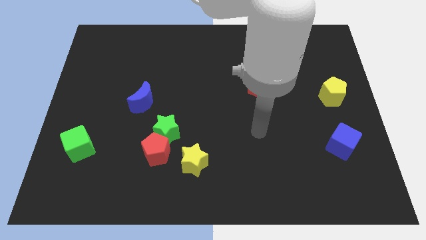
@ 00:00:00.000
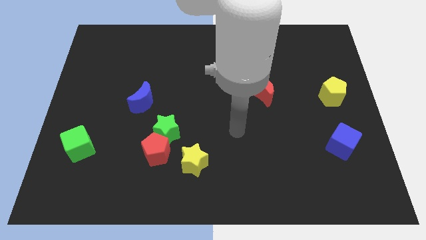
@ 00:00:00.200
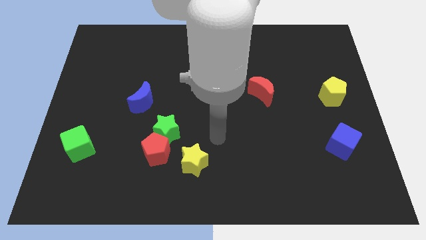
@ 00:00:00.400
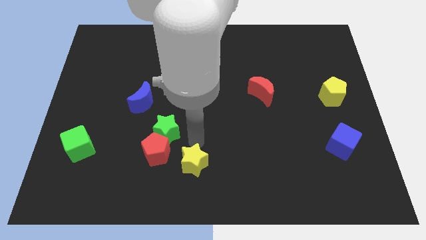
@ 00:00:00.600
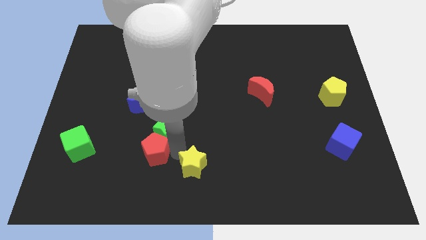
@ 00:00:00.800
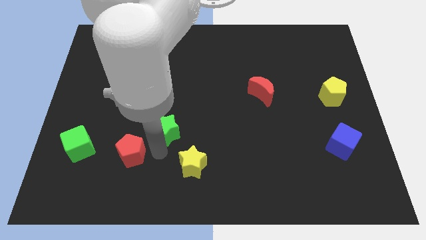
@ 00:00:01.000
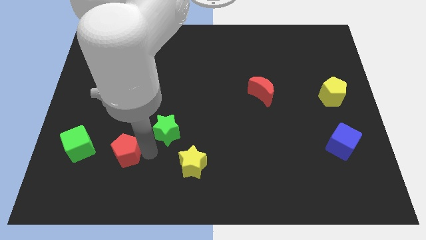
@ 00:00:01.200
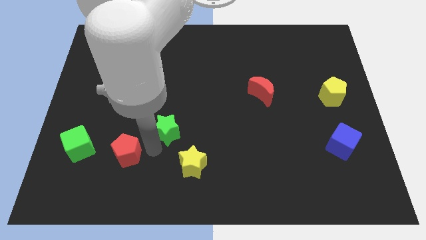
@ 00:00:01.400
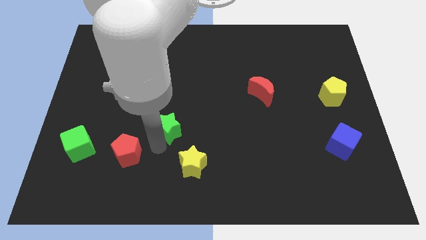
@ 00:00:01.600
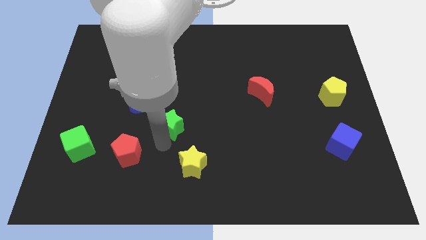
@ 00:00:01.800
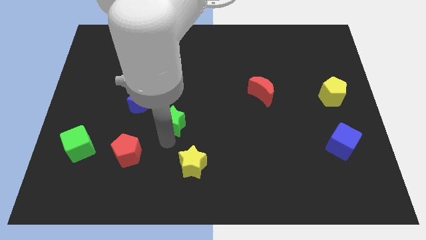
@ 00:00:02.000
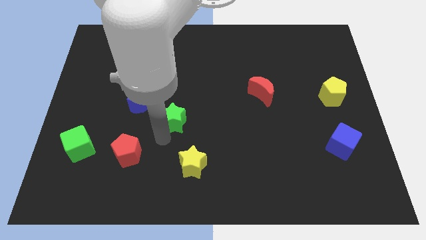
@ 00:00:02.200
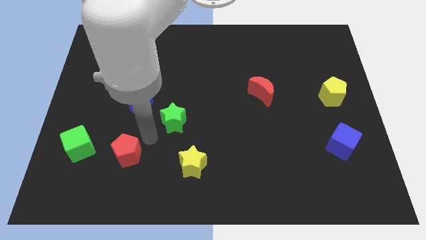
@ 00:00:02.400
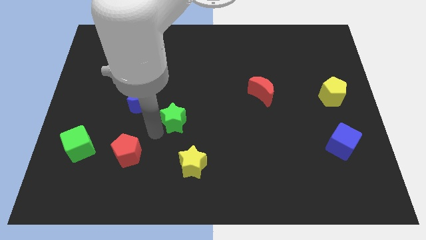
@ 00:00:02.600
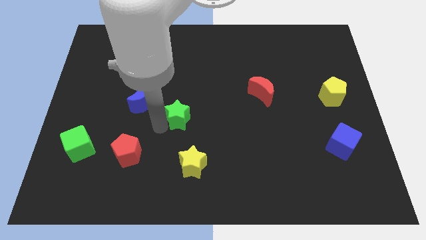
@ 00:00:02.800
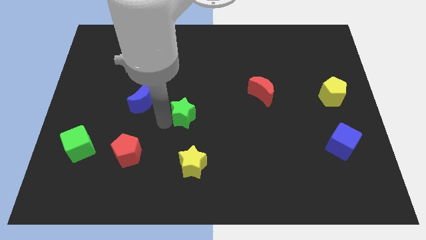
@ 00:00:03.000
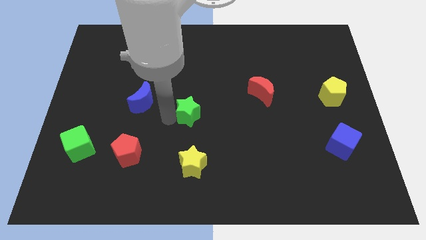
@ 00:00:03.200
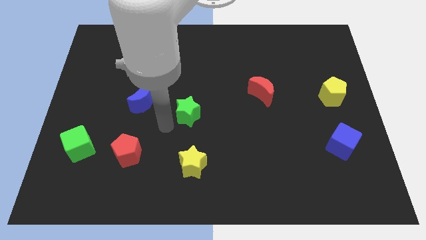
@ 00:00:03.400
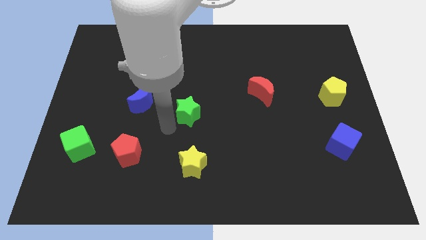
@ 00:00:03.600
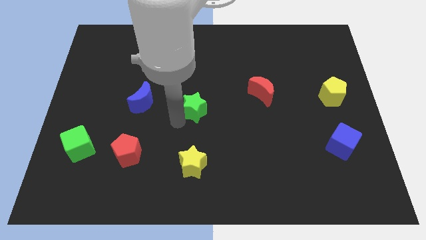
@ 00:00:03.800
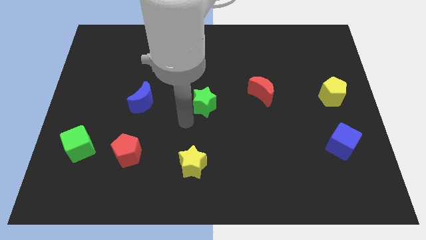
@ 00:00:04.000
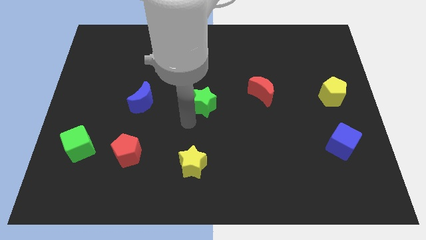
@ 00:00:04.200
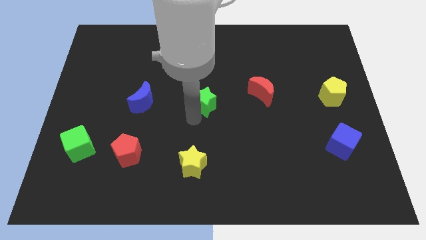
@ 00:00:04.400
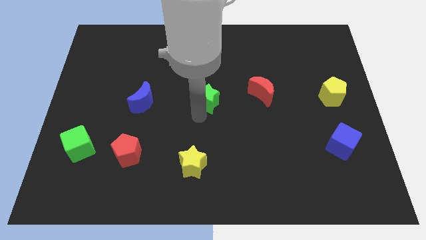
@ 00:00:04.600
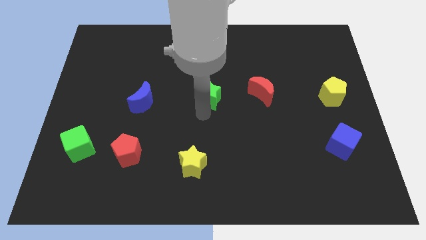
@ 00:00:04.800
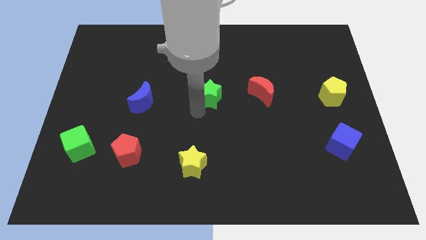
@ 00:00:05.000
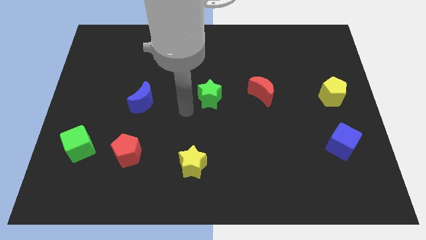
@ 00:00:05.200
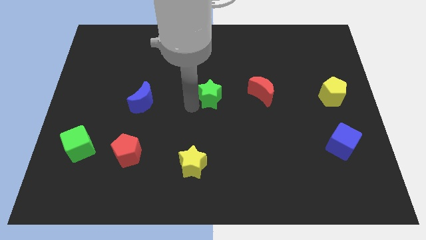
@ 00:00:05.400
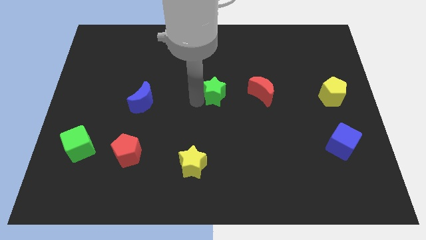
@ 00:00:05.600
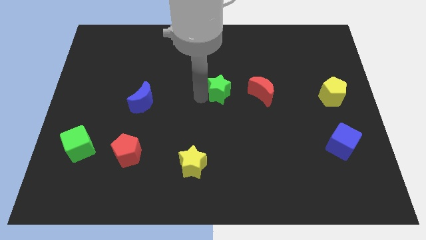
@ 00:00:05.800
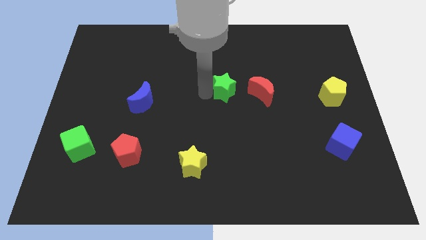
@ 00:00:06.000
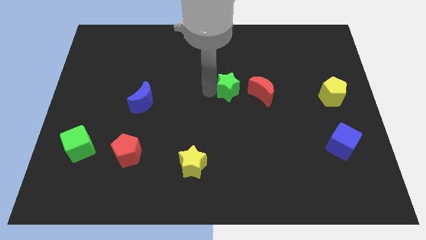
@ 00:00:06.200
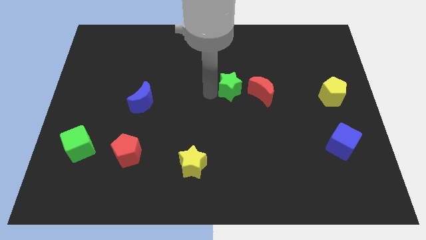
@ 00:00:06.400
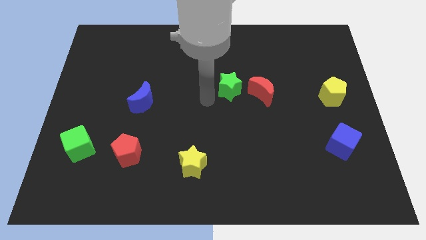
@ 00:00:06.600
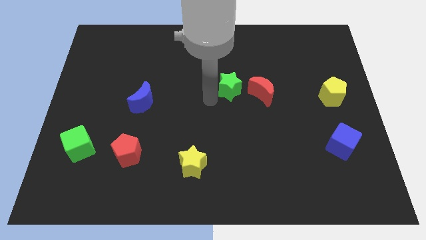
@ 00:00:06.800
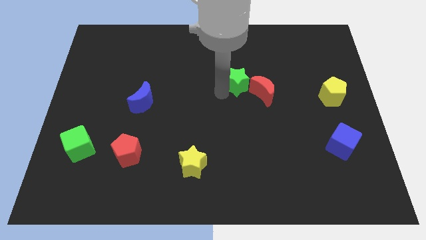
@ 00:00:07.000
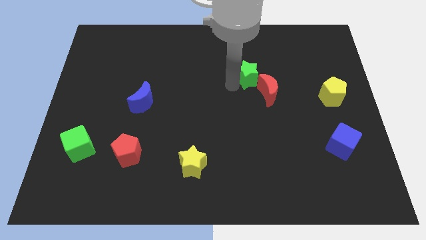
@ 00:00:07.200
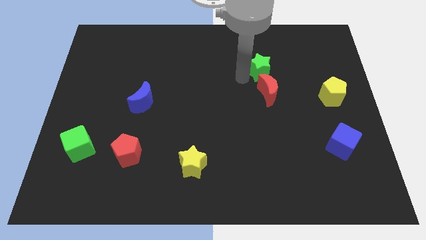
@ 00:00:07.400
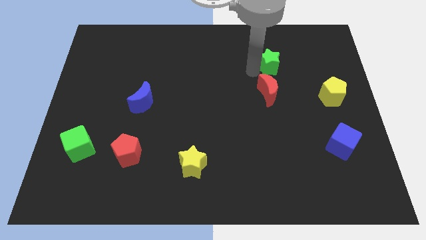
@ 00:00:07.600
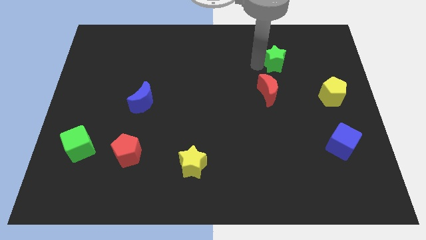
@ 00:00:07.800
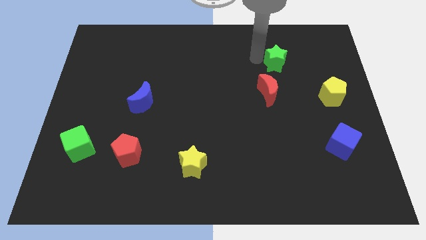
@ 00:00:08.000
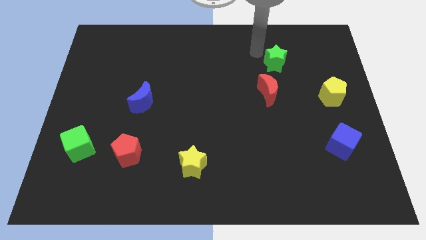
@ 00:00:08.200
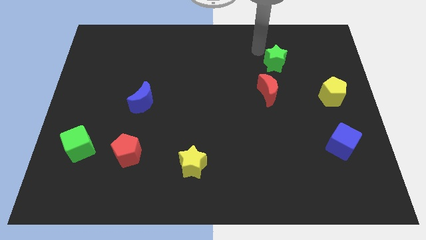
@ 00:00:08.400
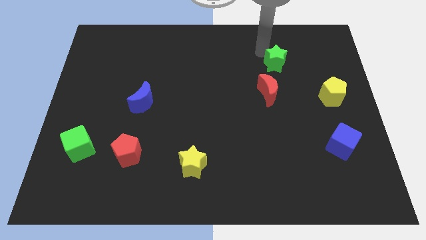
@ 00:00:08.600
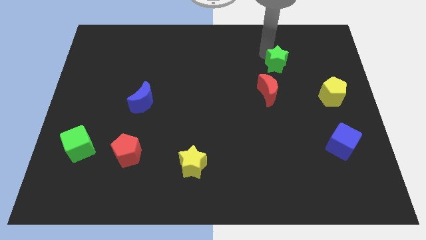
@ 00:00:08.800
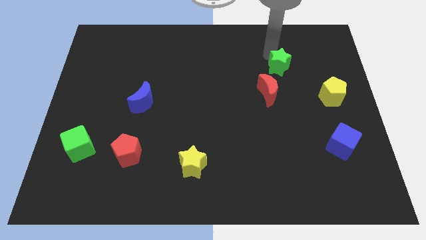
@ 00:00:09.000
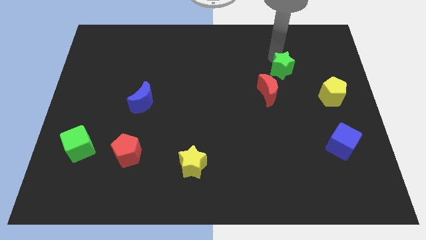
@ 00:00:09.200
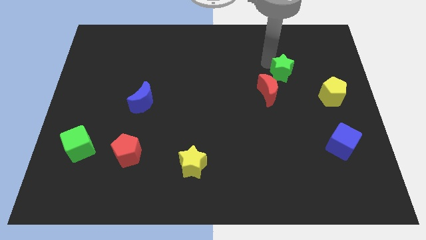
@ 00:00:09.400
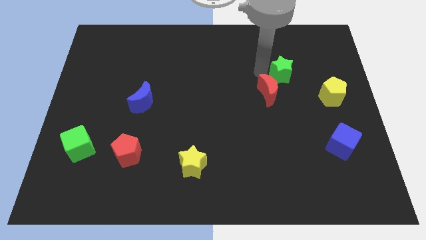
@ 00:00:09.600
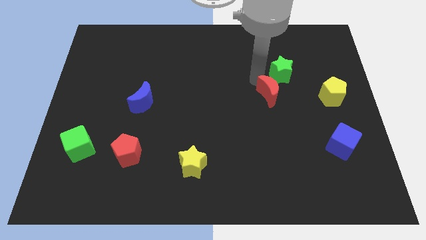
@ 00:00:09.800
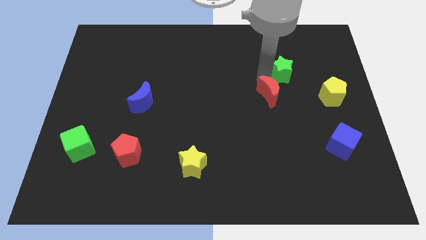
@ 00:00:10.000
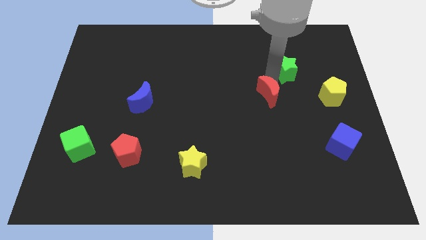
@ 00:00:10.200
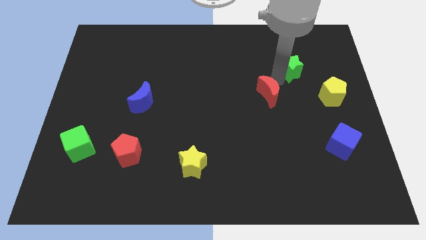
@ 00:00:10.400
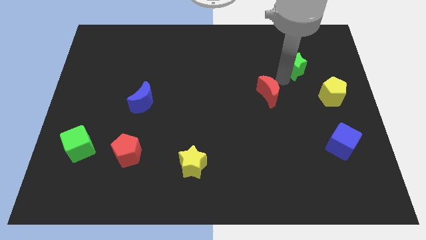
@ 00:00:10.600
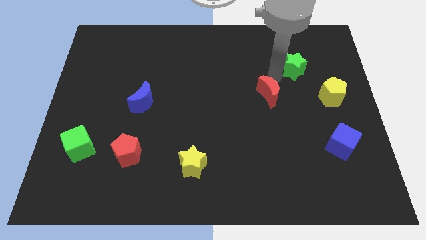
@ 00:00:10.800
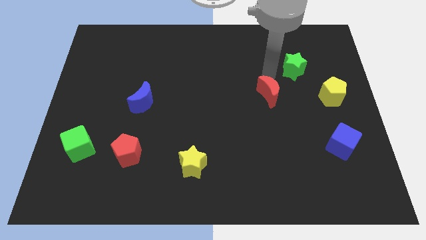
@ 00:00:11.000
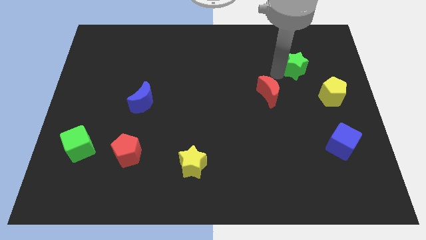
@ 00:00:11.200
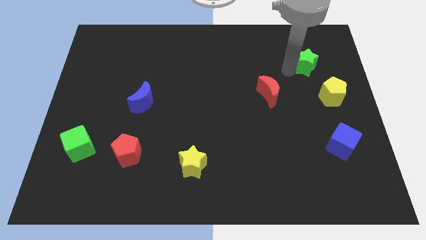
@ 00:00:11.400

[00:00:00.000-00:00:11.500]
put the green star to the top side of the yellow pentagon

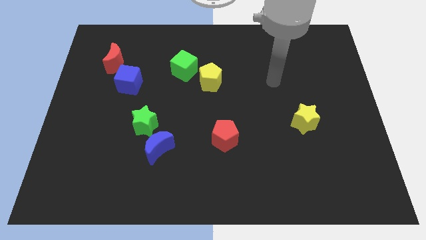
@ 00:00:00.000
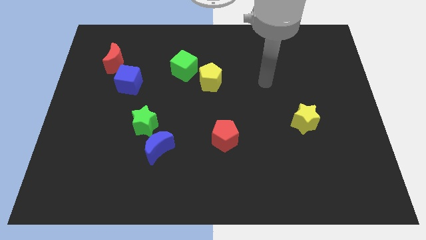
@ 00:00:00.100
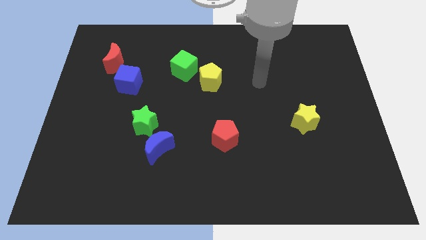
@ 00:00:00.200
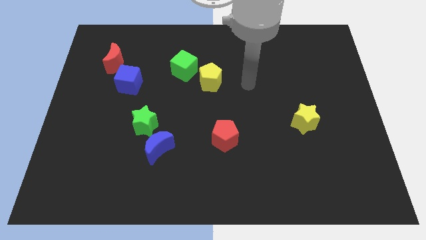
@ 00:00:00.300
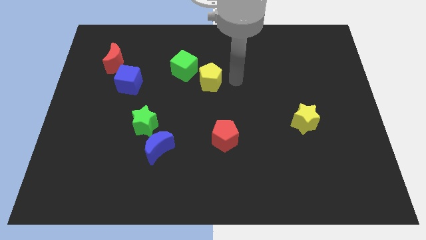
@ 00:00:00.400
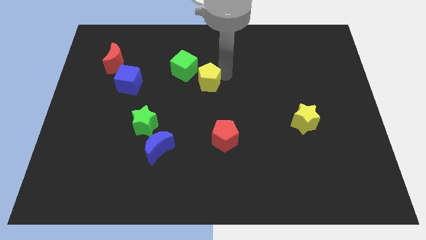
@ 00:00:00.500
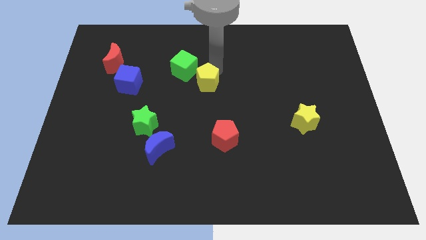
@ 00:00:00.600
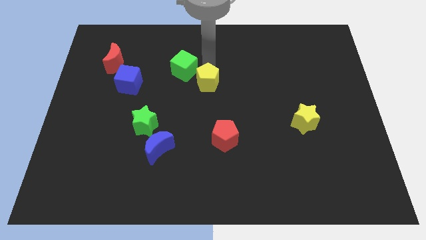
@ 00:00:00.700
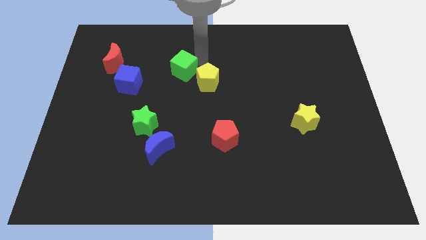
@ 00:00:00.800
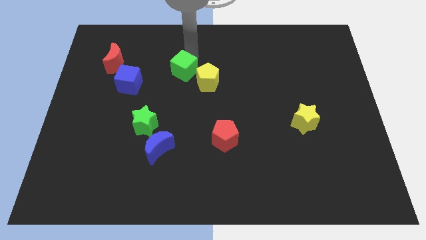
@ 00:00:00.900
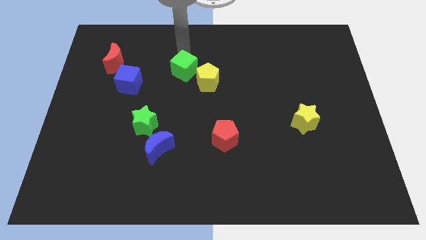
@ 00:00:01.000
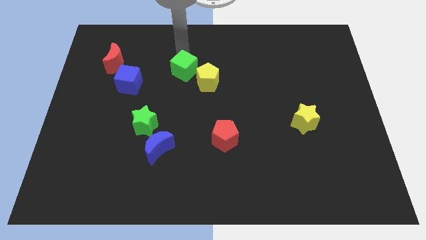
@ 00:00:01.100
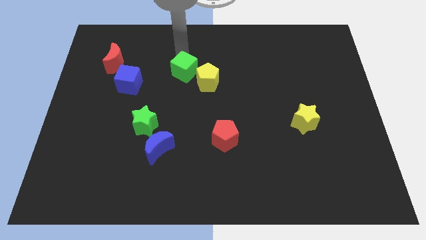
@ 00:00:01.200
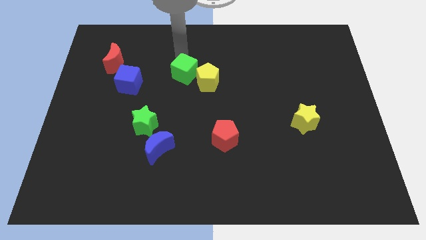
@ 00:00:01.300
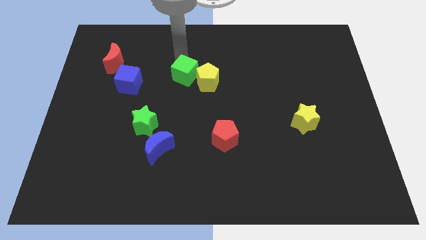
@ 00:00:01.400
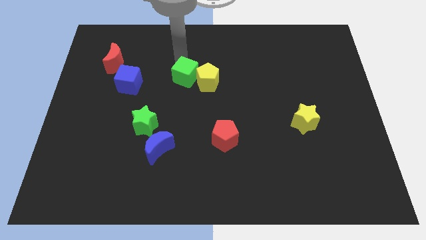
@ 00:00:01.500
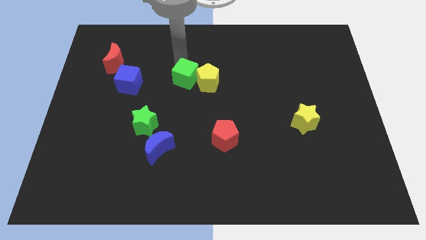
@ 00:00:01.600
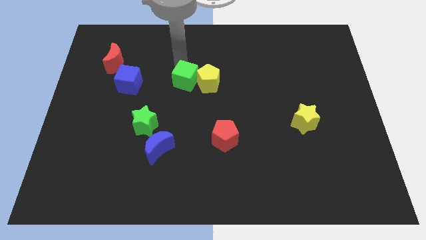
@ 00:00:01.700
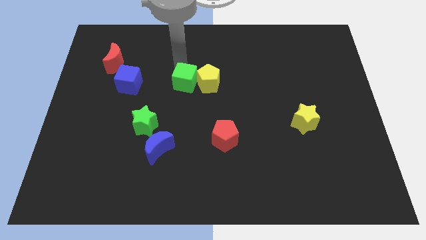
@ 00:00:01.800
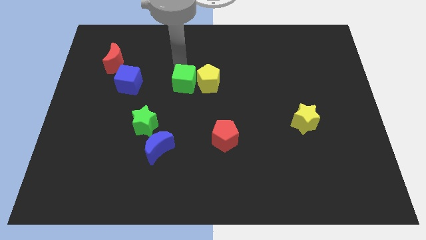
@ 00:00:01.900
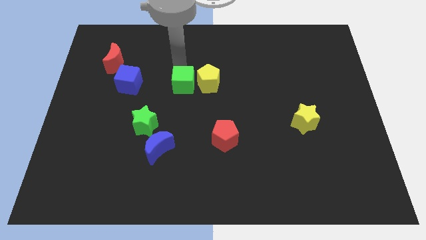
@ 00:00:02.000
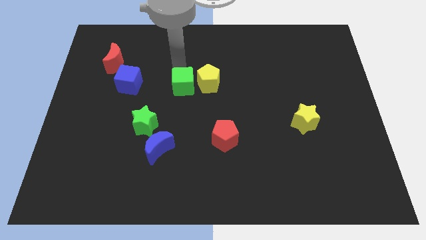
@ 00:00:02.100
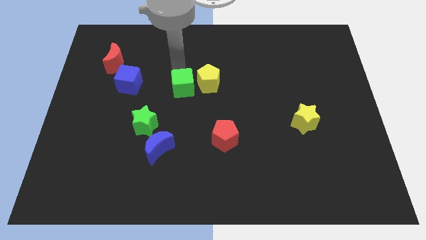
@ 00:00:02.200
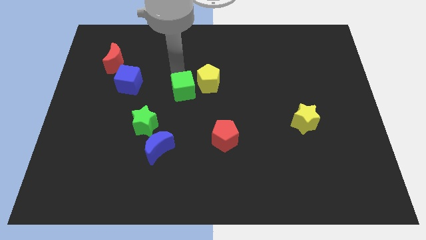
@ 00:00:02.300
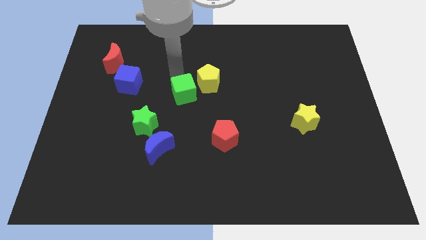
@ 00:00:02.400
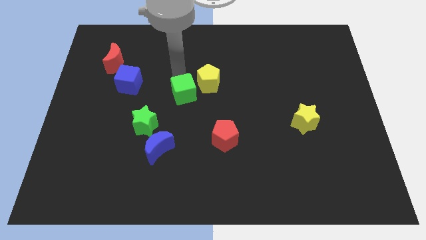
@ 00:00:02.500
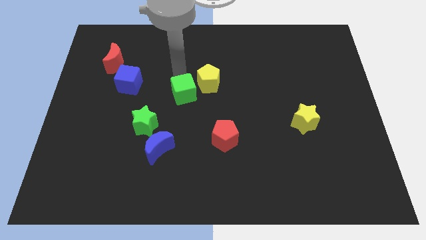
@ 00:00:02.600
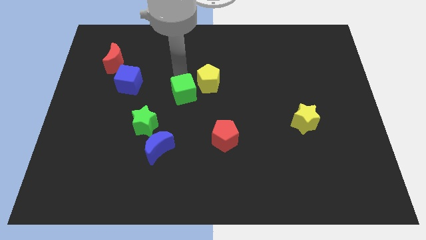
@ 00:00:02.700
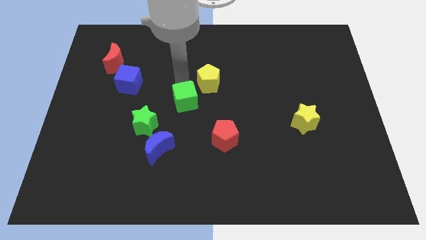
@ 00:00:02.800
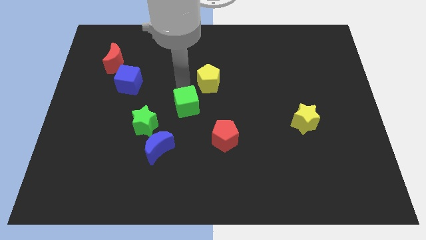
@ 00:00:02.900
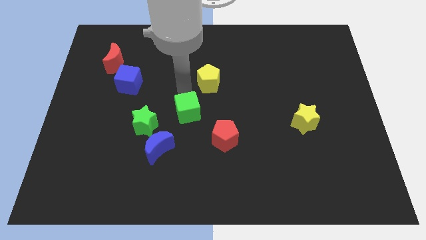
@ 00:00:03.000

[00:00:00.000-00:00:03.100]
move the green cube to the right side of the green star
